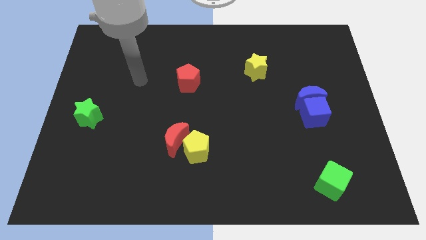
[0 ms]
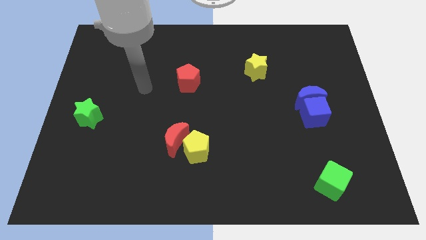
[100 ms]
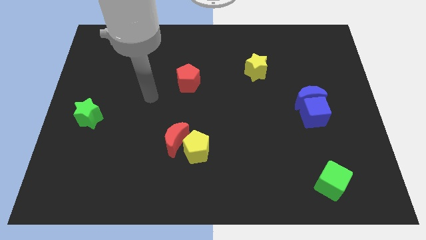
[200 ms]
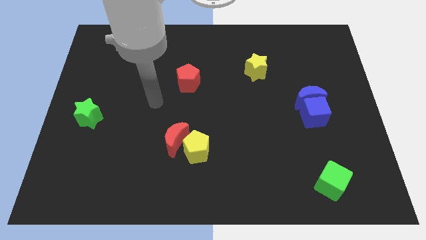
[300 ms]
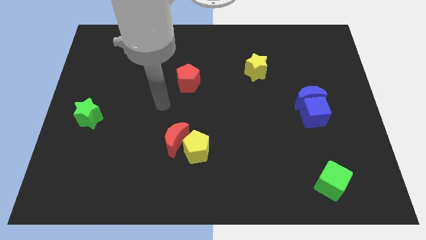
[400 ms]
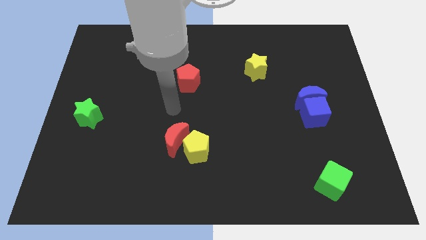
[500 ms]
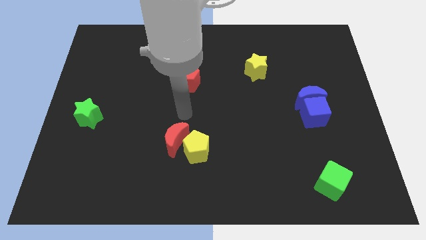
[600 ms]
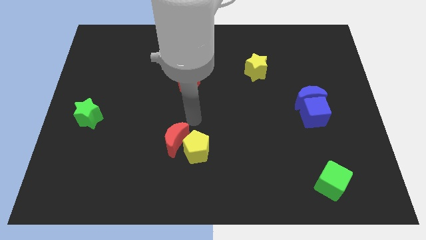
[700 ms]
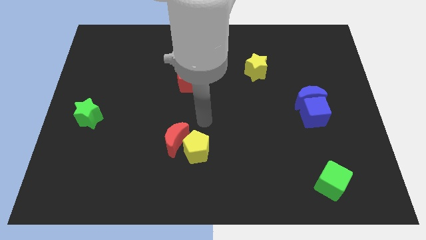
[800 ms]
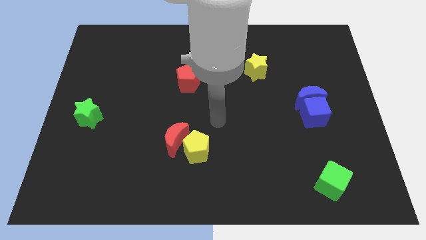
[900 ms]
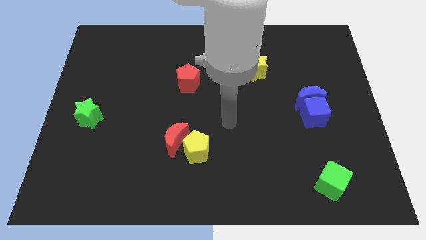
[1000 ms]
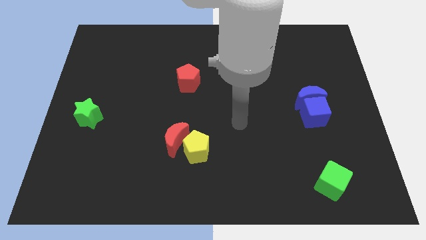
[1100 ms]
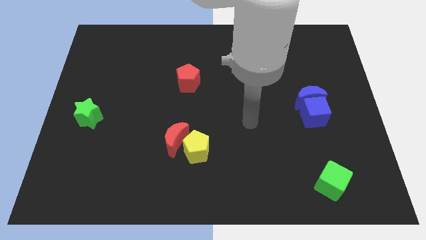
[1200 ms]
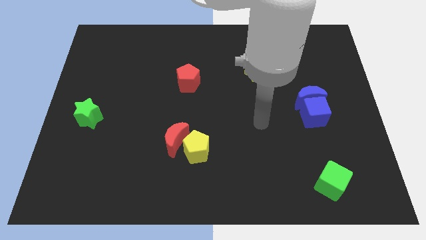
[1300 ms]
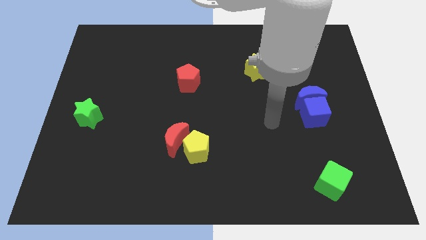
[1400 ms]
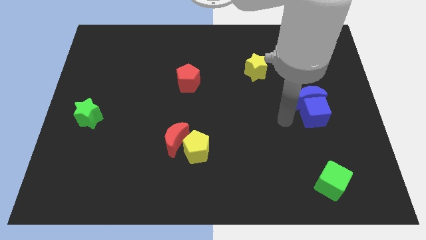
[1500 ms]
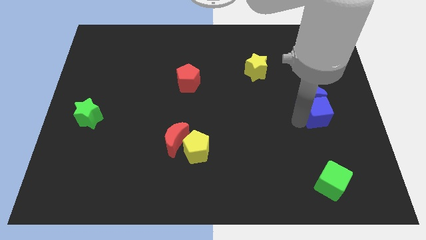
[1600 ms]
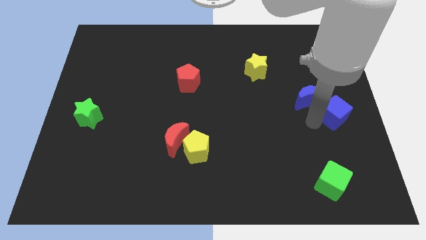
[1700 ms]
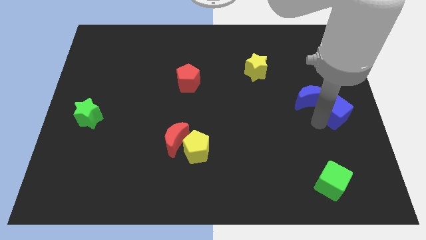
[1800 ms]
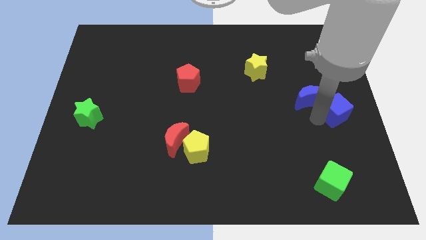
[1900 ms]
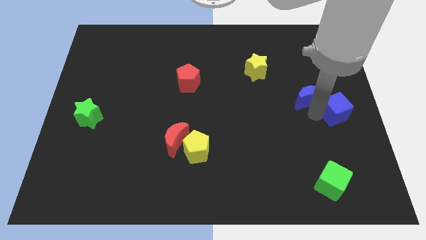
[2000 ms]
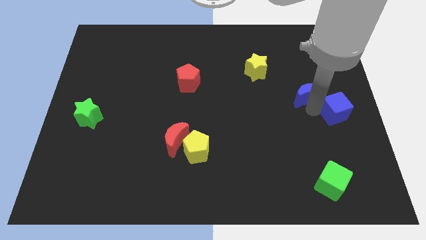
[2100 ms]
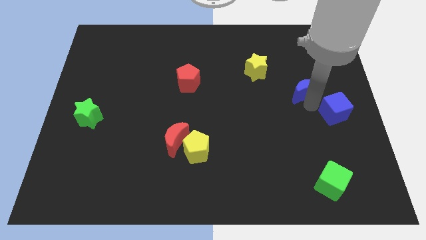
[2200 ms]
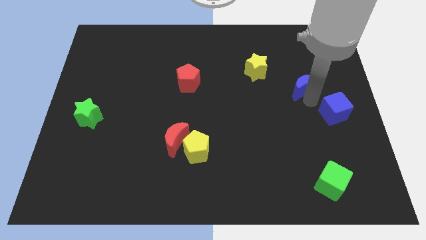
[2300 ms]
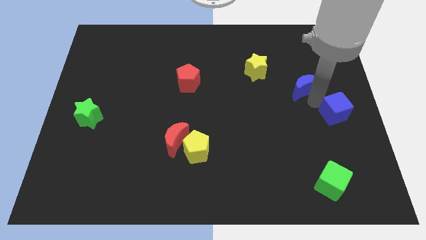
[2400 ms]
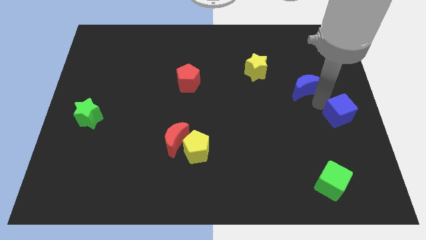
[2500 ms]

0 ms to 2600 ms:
pull the blue moon apart from the blue cube

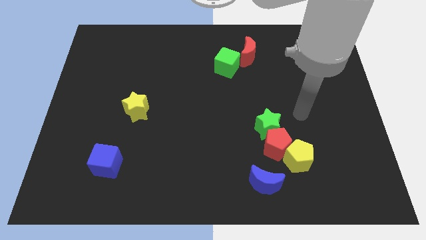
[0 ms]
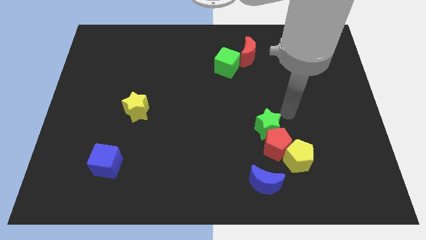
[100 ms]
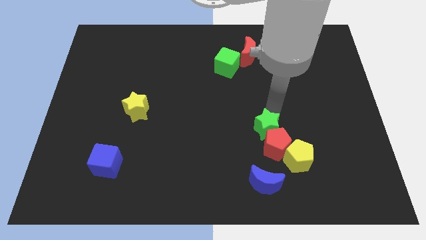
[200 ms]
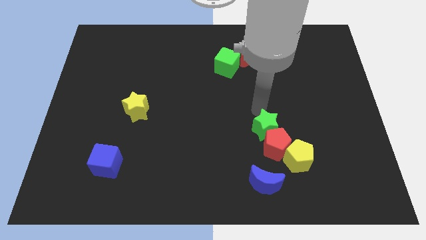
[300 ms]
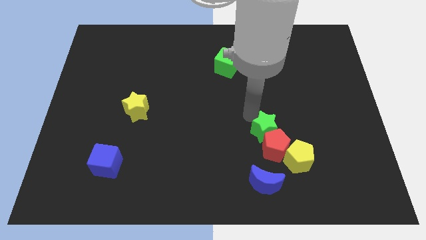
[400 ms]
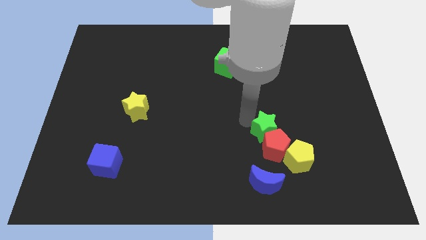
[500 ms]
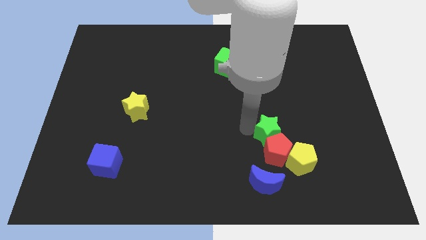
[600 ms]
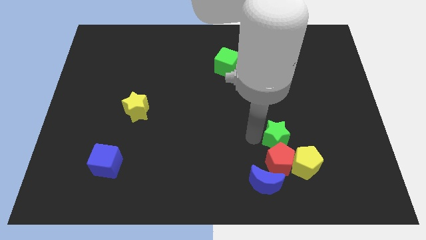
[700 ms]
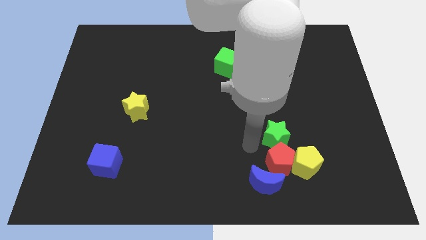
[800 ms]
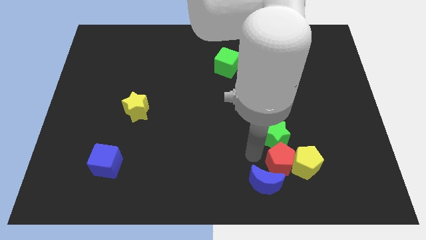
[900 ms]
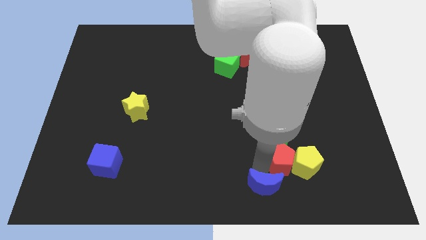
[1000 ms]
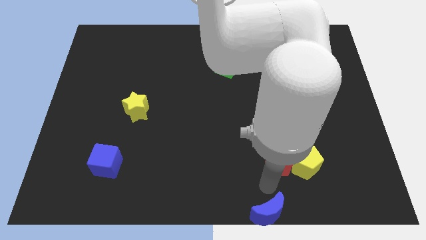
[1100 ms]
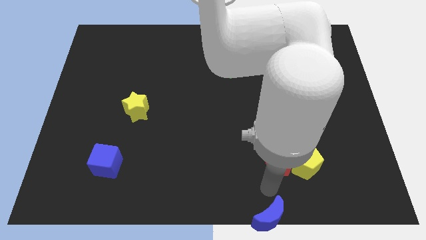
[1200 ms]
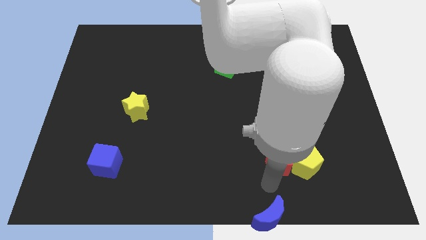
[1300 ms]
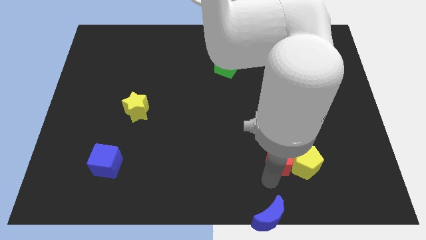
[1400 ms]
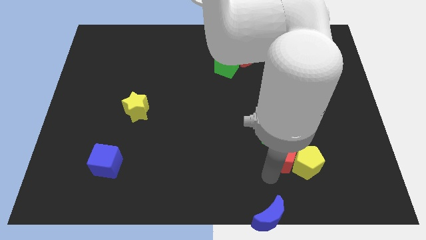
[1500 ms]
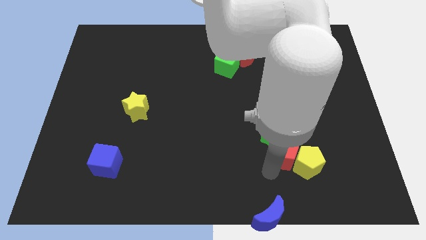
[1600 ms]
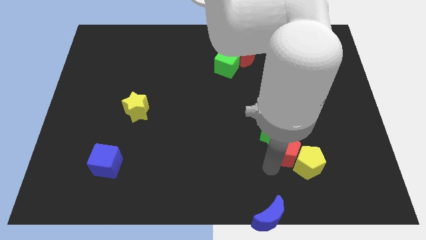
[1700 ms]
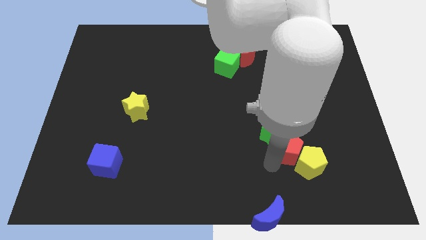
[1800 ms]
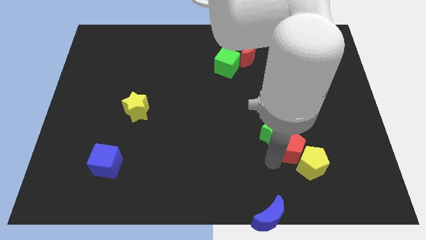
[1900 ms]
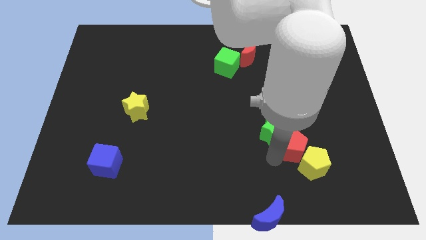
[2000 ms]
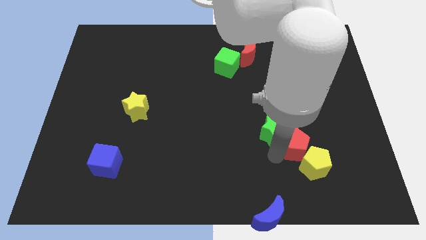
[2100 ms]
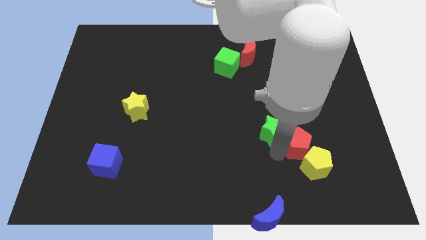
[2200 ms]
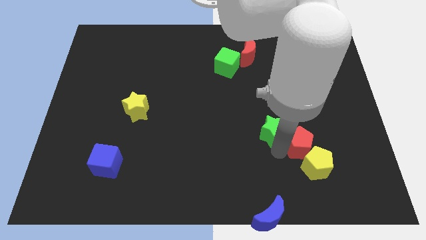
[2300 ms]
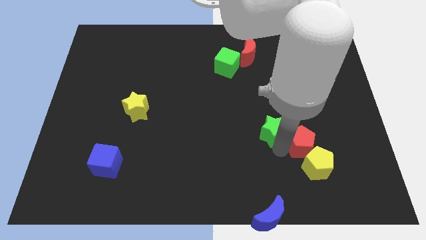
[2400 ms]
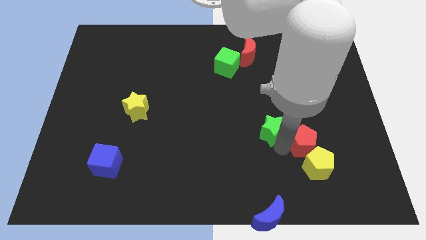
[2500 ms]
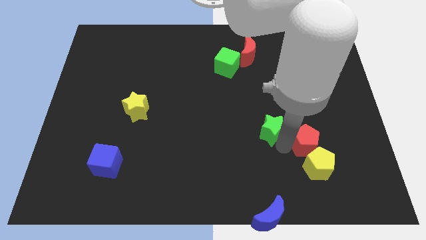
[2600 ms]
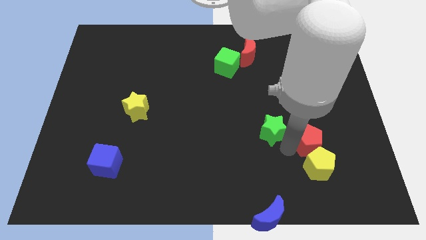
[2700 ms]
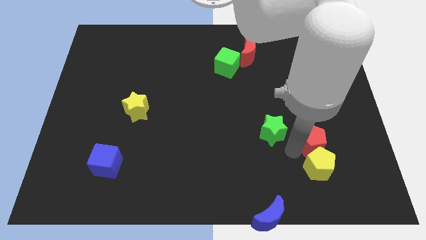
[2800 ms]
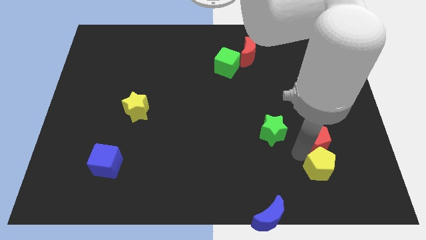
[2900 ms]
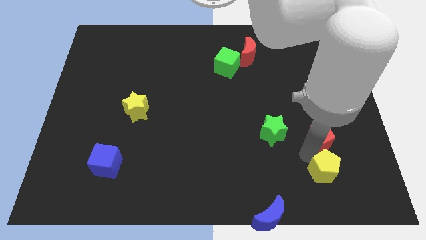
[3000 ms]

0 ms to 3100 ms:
separate the red pentagon from the green star, yellow pentagon, and blue moon

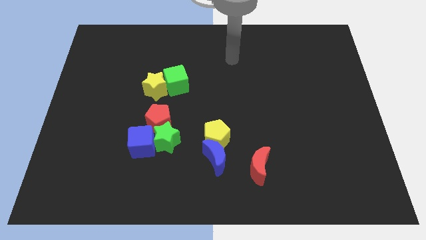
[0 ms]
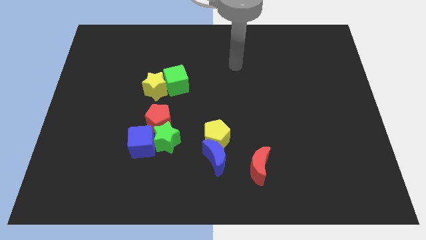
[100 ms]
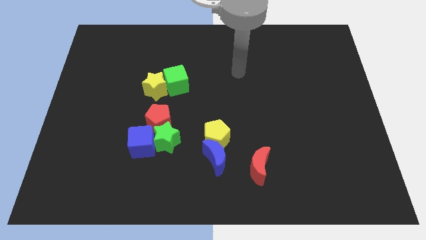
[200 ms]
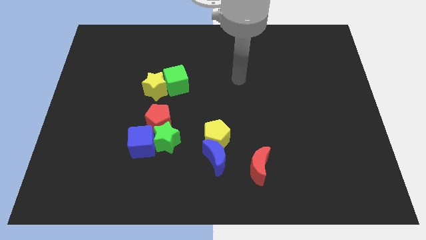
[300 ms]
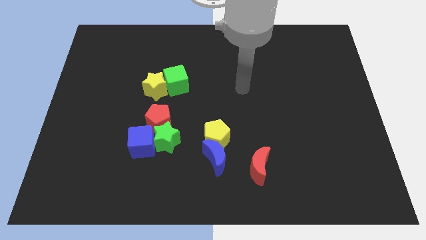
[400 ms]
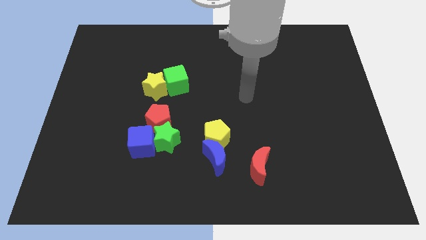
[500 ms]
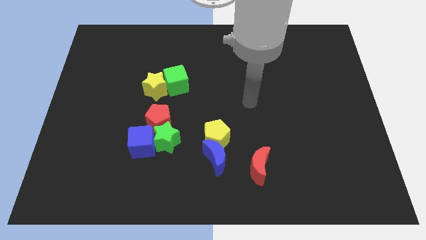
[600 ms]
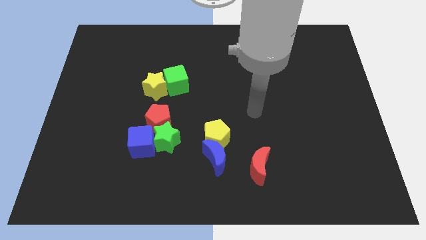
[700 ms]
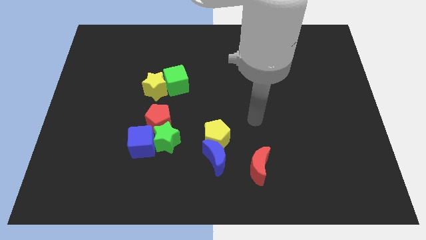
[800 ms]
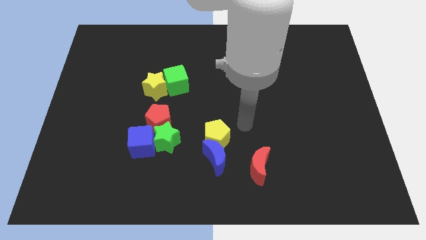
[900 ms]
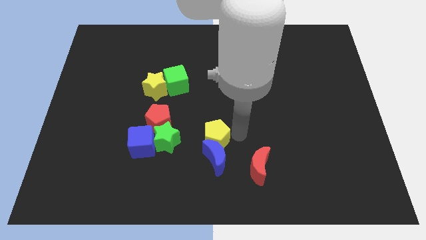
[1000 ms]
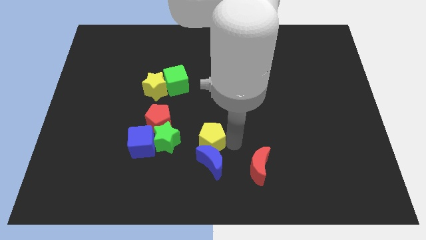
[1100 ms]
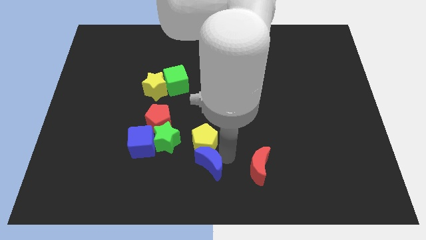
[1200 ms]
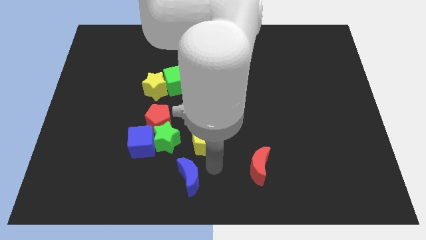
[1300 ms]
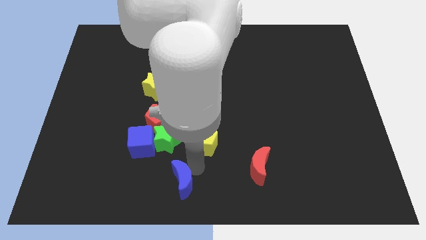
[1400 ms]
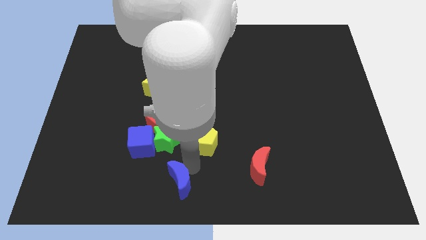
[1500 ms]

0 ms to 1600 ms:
separate the yellow pentagon from the blue moon

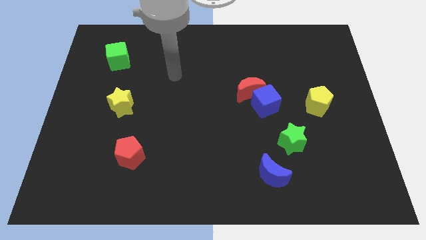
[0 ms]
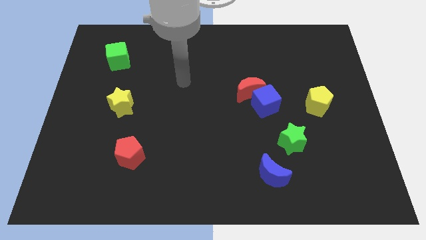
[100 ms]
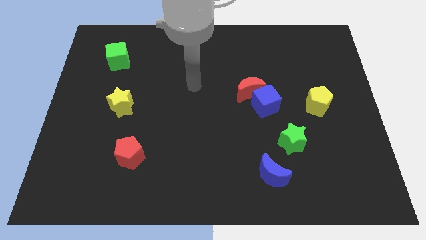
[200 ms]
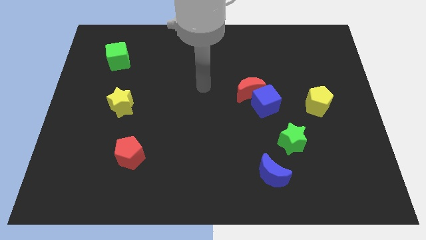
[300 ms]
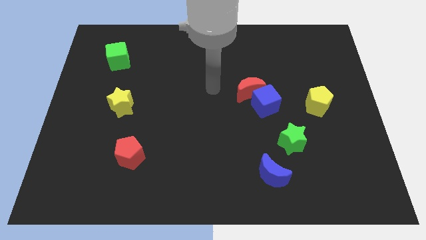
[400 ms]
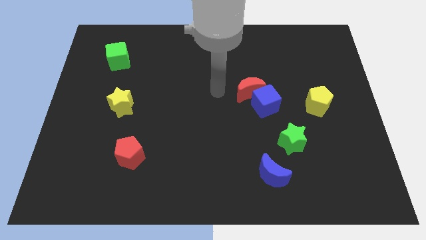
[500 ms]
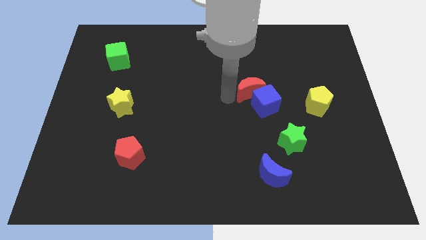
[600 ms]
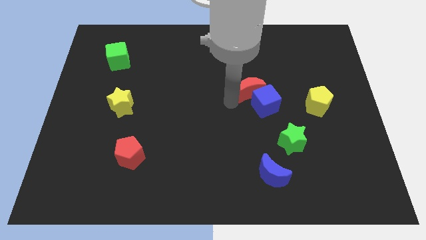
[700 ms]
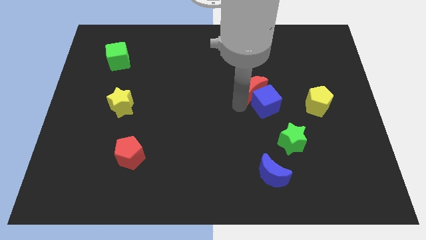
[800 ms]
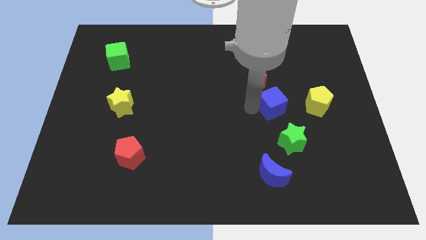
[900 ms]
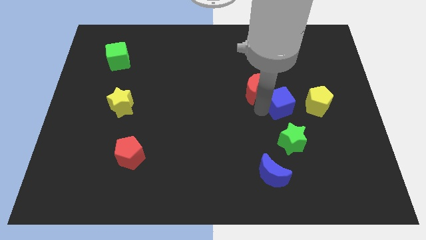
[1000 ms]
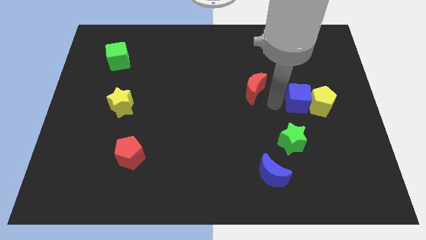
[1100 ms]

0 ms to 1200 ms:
move the red moon away from the blue cube

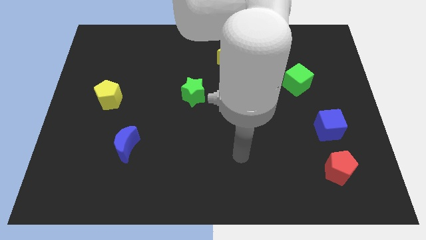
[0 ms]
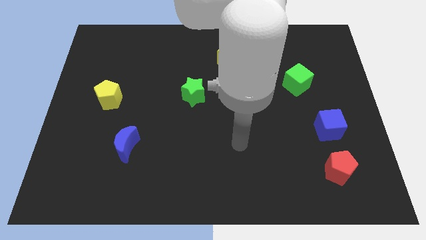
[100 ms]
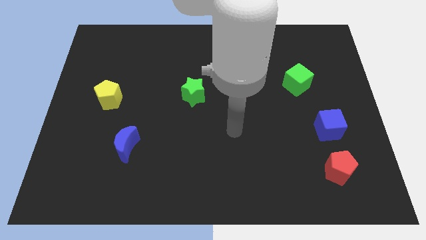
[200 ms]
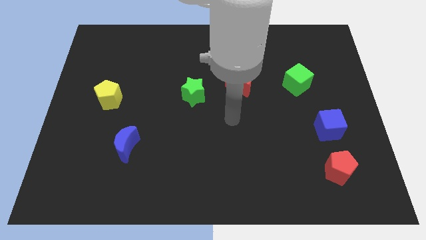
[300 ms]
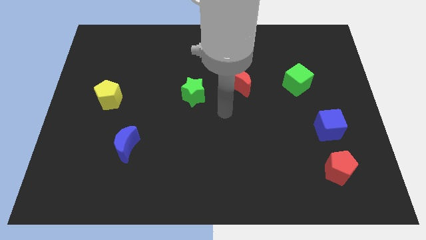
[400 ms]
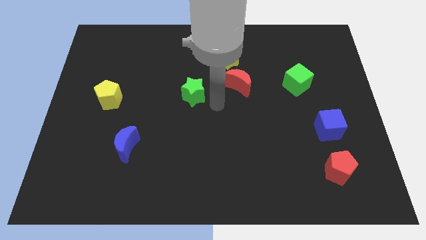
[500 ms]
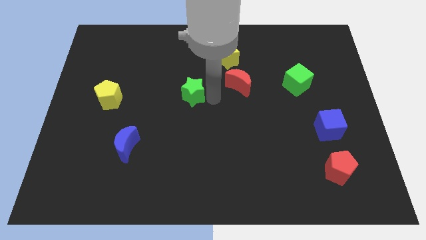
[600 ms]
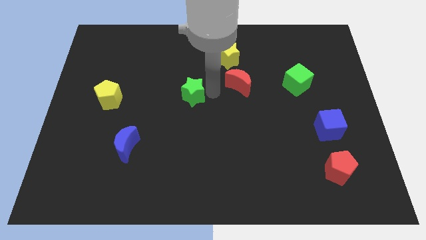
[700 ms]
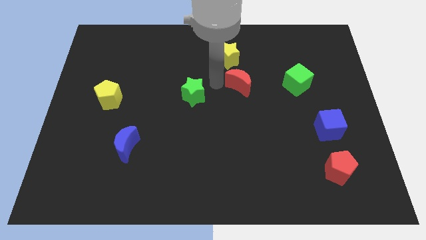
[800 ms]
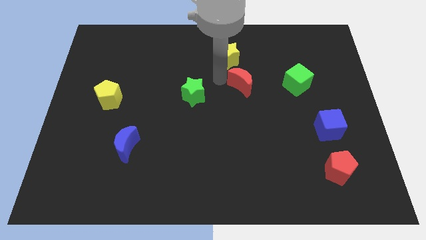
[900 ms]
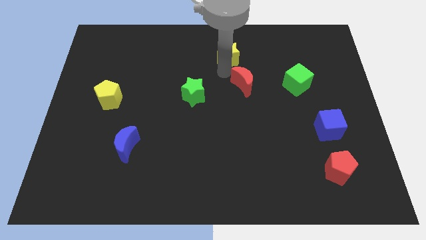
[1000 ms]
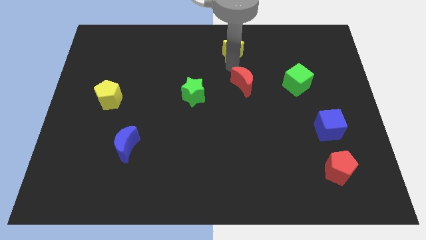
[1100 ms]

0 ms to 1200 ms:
pull the red moon apart from the yellow star
